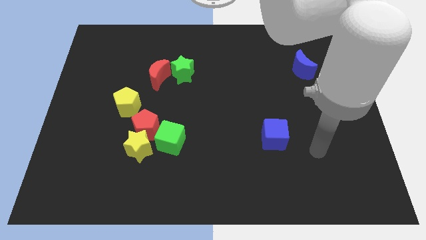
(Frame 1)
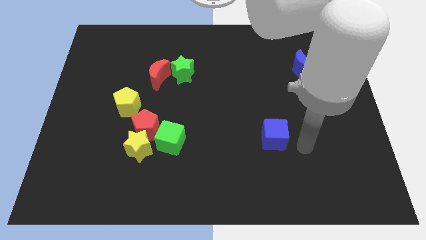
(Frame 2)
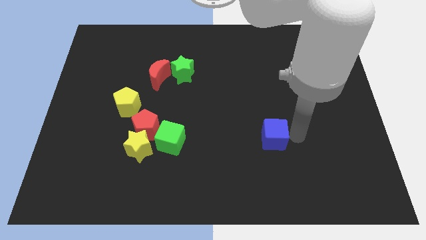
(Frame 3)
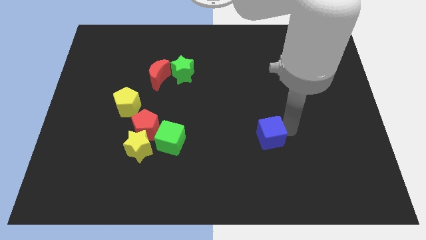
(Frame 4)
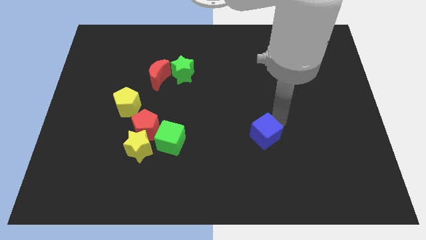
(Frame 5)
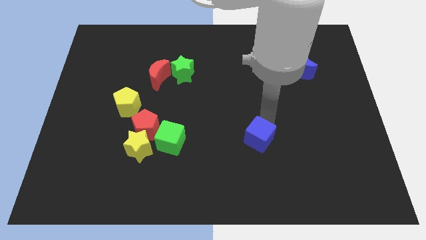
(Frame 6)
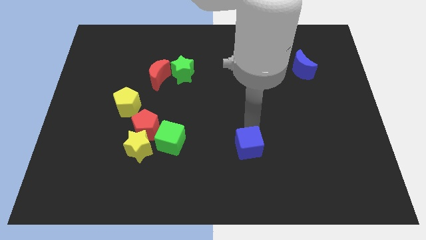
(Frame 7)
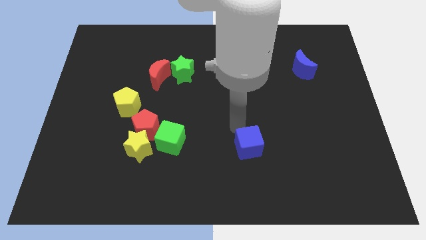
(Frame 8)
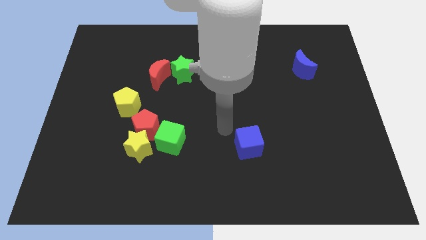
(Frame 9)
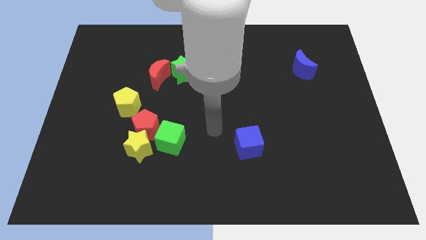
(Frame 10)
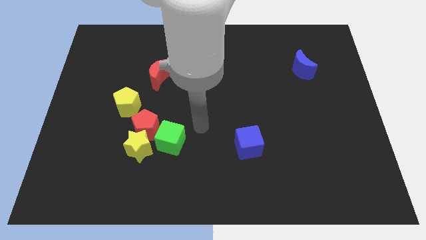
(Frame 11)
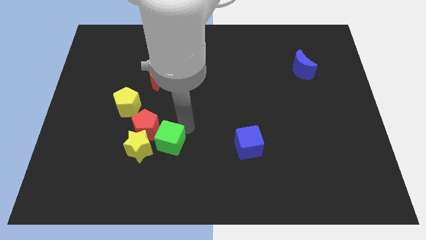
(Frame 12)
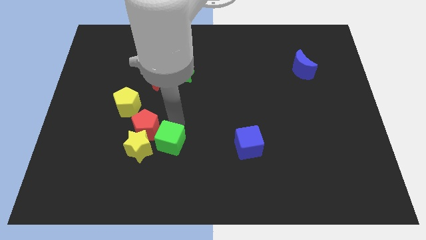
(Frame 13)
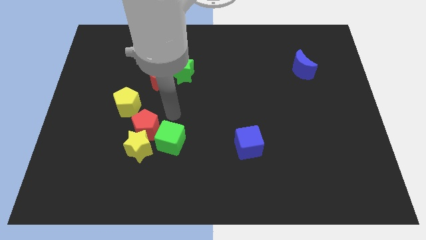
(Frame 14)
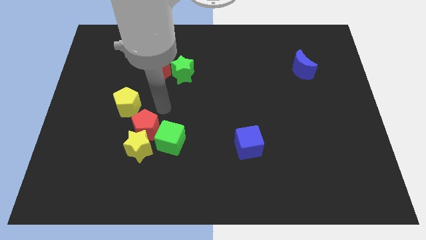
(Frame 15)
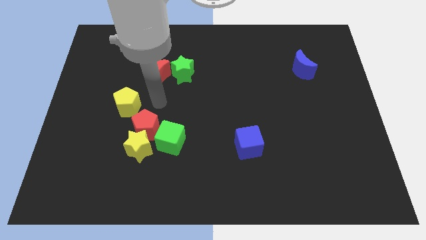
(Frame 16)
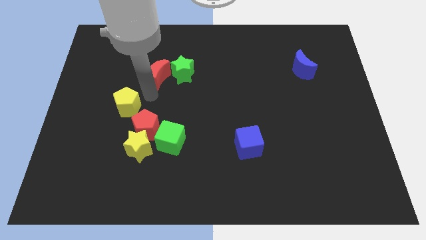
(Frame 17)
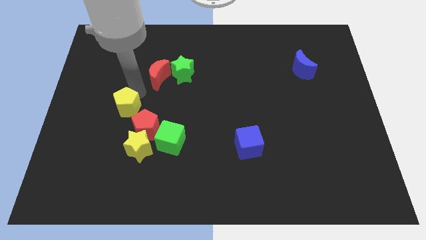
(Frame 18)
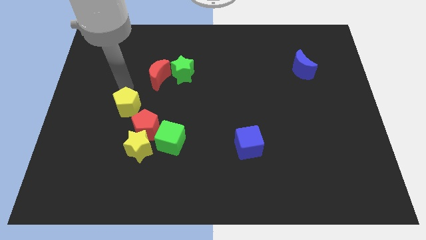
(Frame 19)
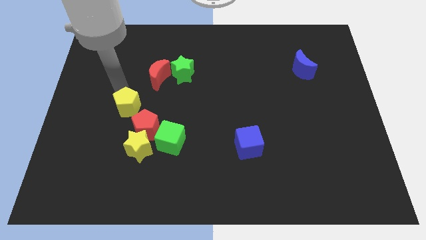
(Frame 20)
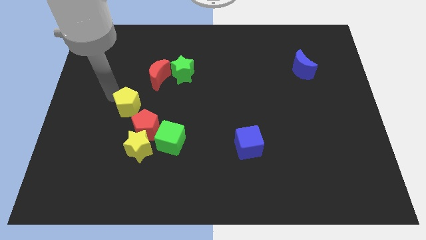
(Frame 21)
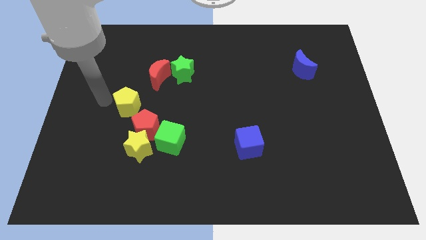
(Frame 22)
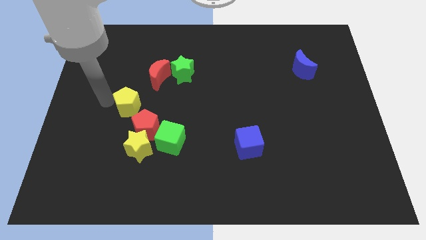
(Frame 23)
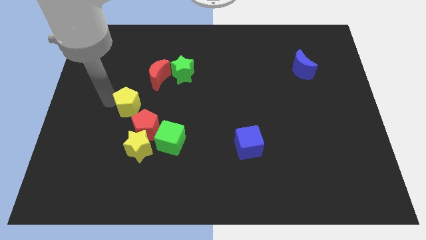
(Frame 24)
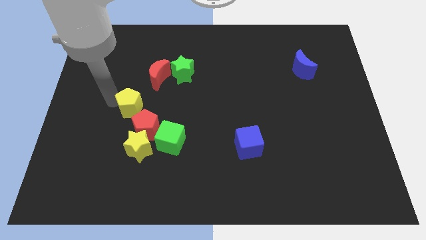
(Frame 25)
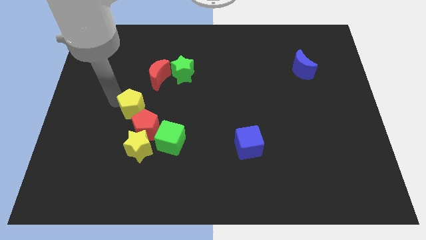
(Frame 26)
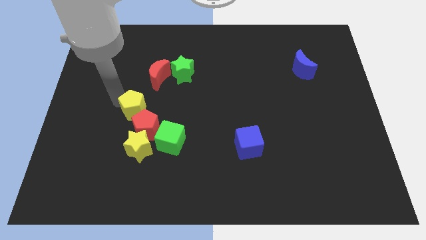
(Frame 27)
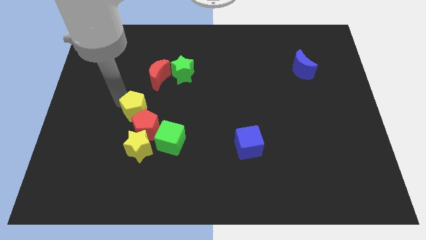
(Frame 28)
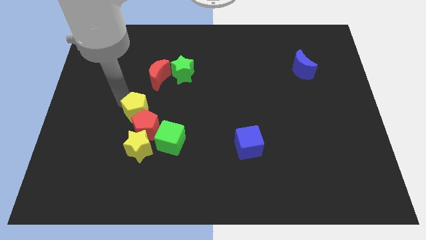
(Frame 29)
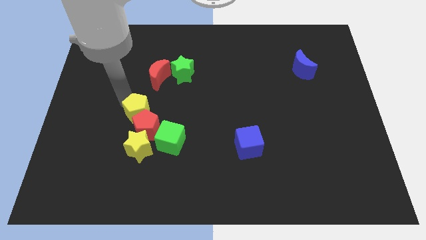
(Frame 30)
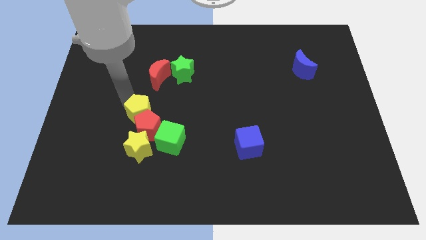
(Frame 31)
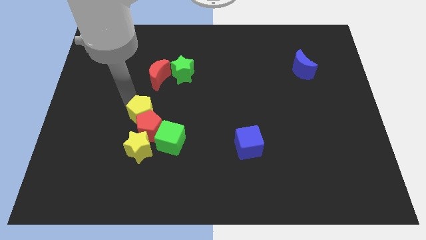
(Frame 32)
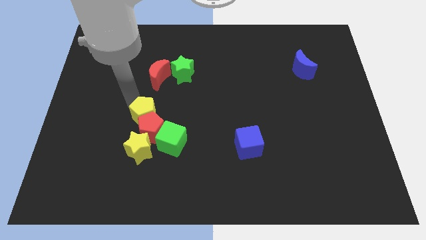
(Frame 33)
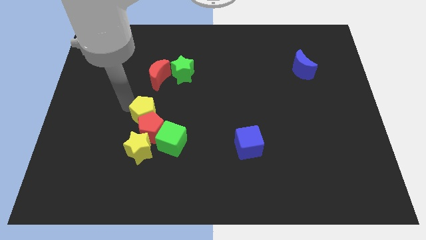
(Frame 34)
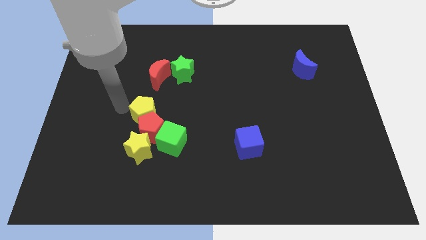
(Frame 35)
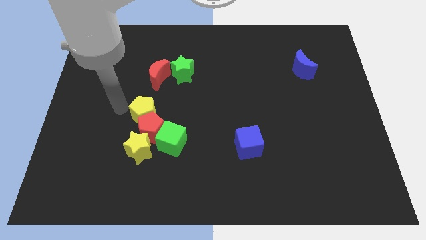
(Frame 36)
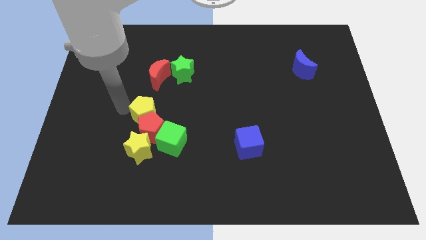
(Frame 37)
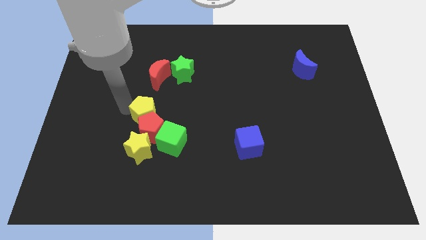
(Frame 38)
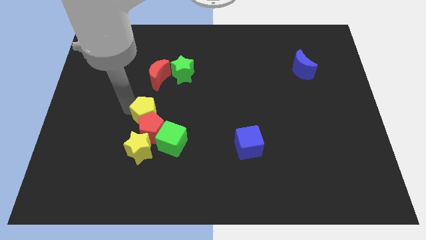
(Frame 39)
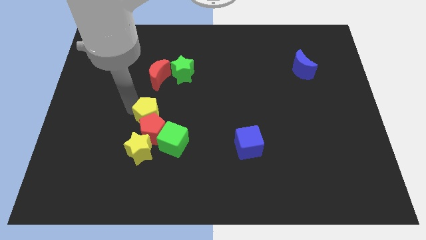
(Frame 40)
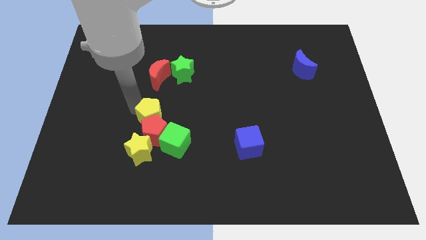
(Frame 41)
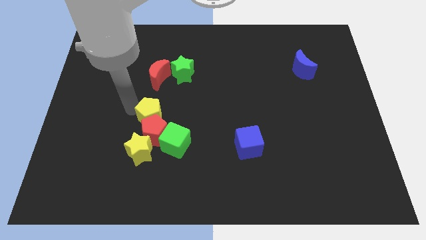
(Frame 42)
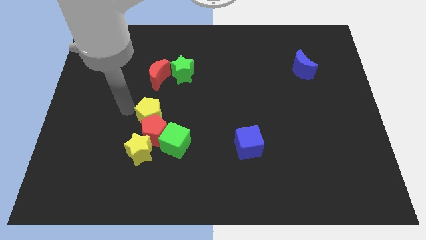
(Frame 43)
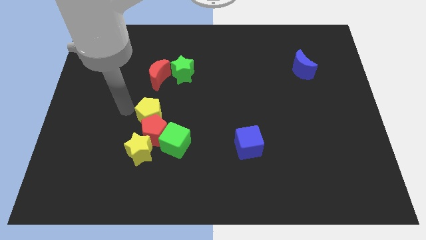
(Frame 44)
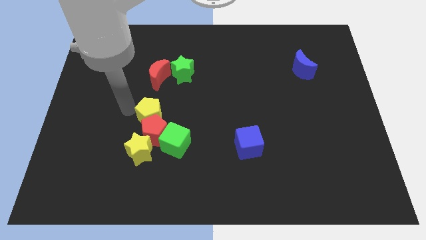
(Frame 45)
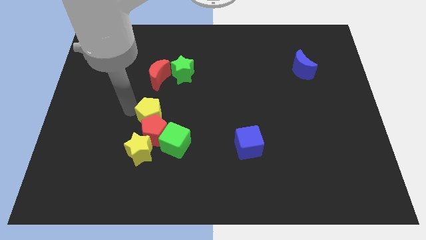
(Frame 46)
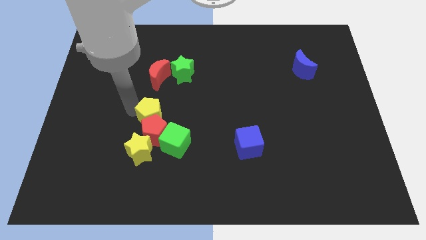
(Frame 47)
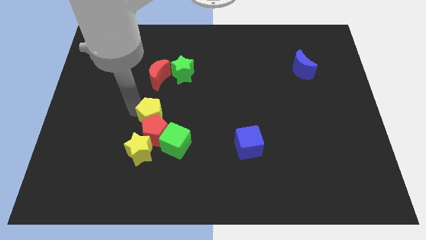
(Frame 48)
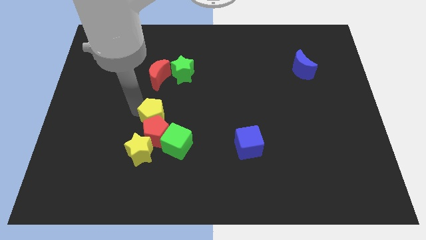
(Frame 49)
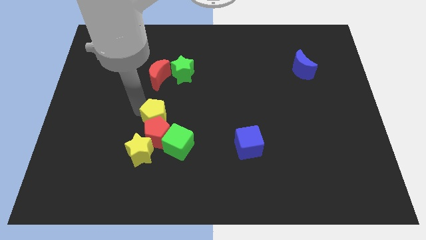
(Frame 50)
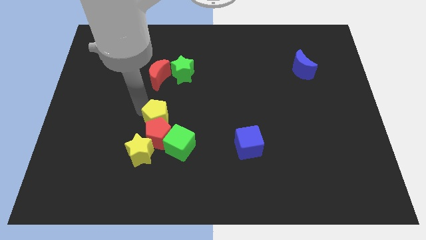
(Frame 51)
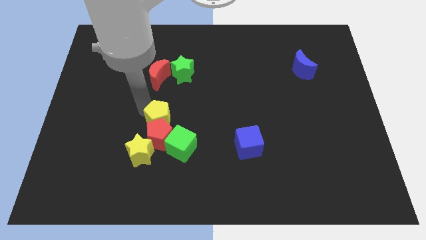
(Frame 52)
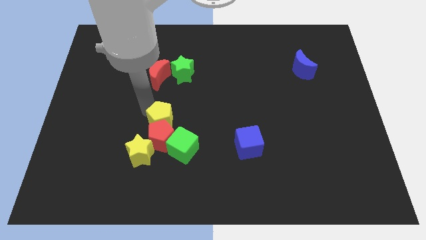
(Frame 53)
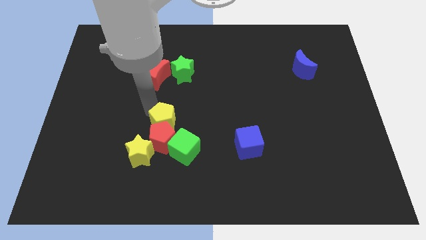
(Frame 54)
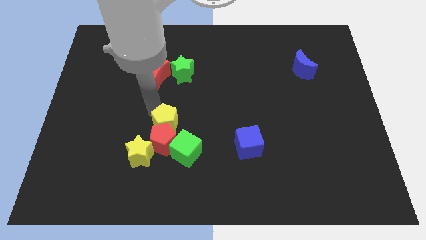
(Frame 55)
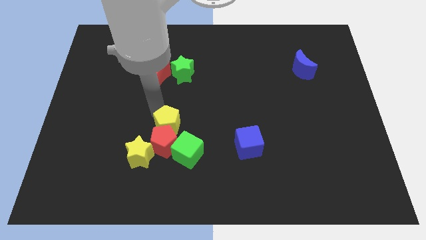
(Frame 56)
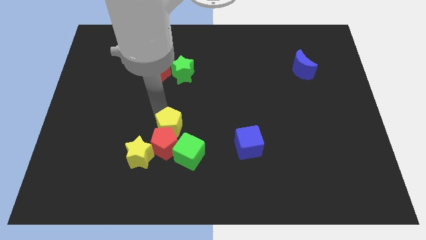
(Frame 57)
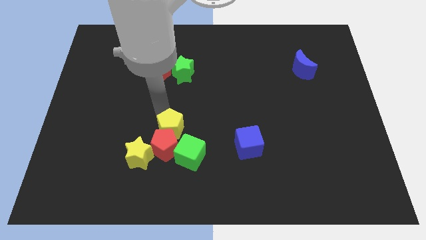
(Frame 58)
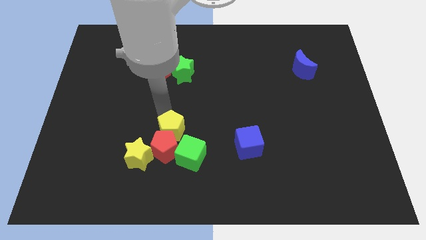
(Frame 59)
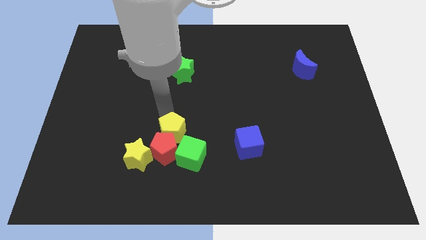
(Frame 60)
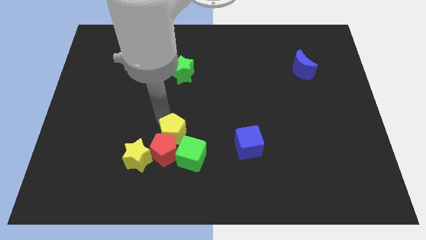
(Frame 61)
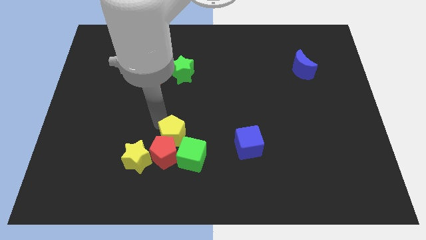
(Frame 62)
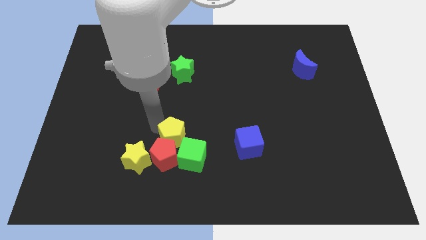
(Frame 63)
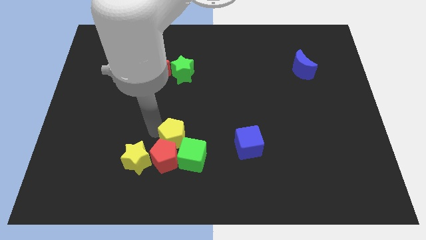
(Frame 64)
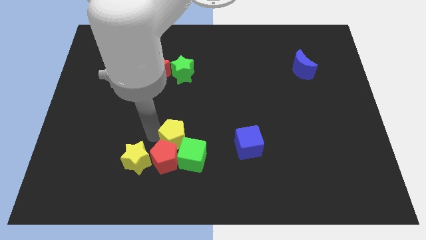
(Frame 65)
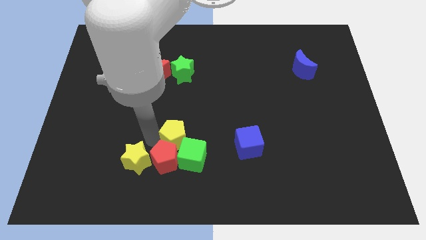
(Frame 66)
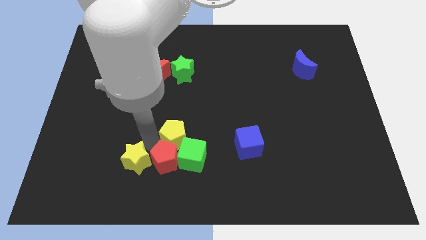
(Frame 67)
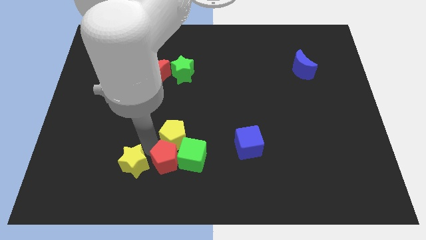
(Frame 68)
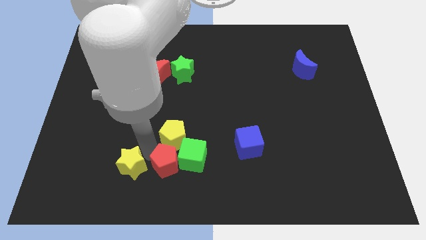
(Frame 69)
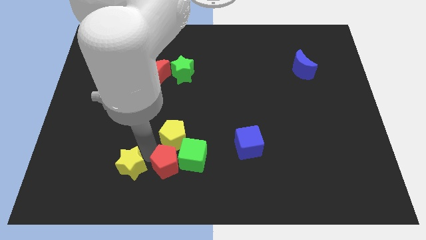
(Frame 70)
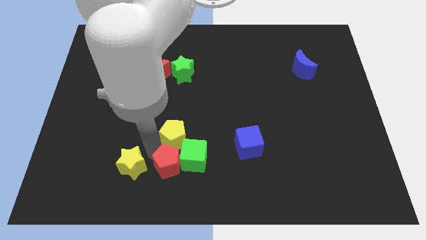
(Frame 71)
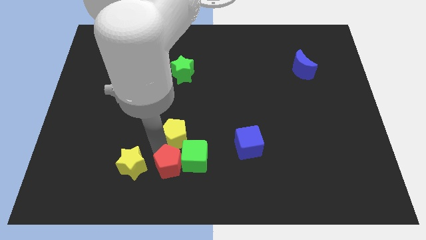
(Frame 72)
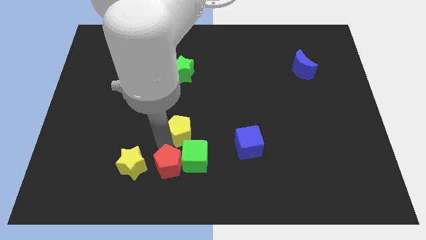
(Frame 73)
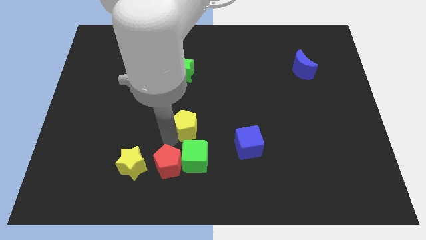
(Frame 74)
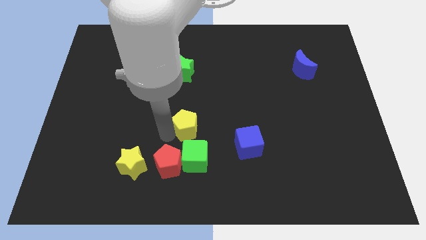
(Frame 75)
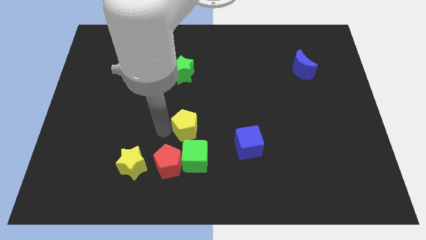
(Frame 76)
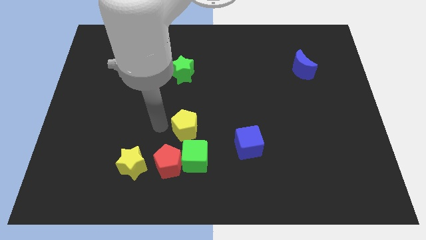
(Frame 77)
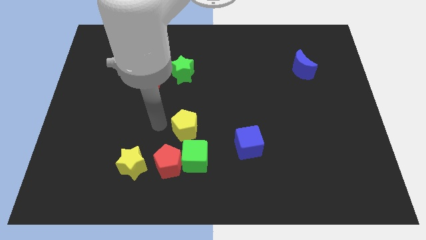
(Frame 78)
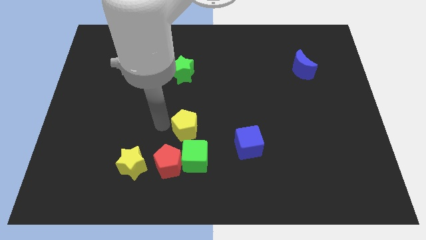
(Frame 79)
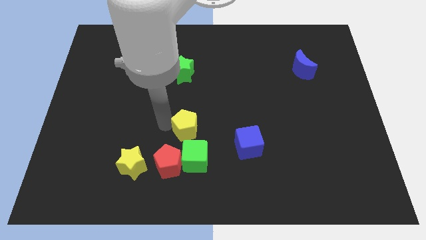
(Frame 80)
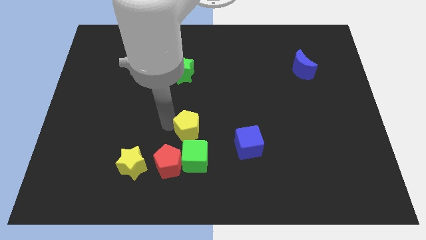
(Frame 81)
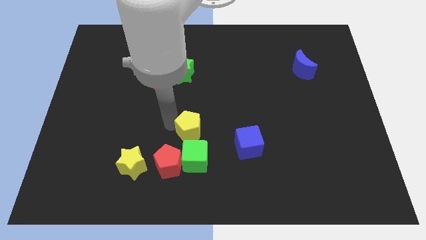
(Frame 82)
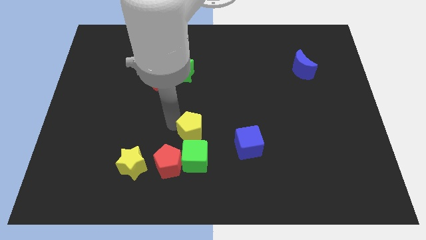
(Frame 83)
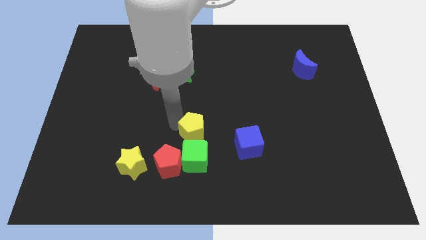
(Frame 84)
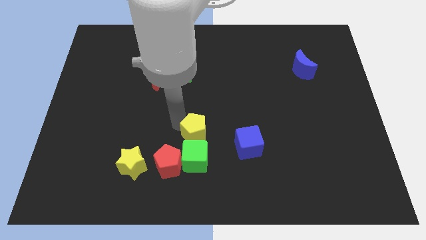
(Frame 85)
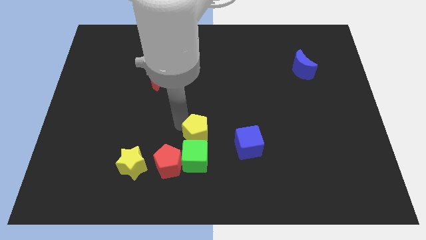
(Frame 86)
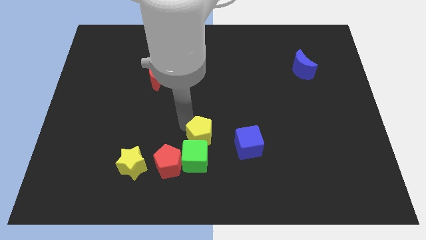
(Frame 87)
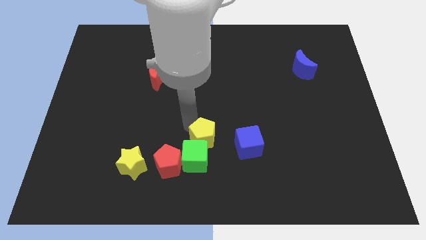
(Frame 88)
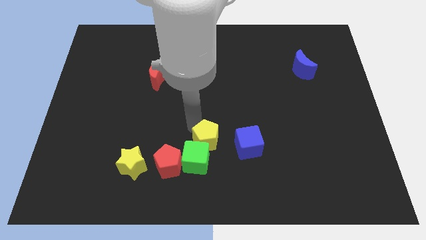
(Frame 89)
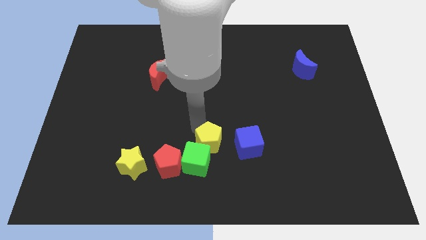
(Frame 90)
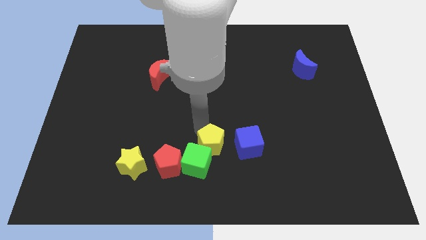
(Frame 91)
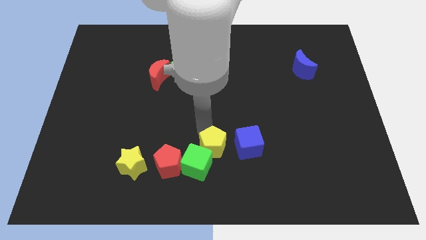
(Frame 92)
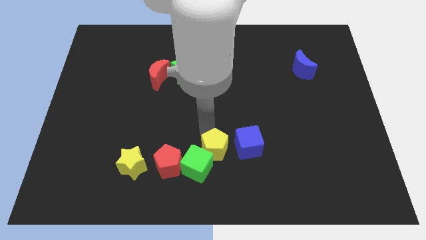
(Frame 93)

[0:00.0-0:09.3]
put the yellow pentagon to the bottom left side of the blue cube
